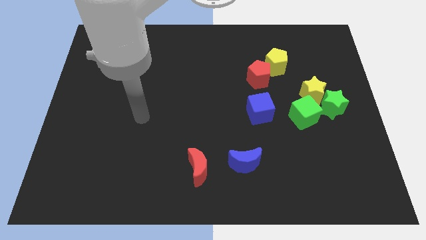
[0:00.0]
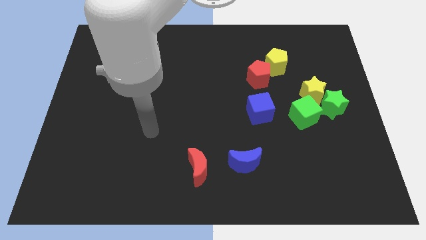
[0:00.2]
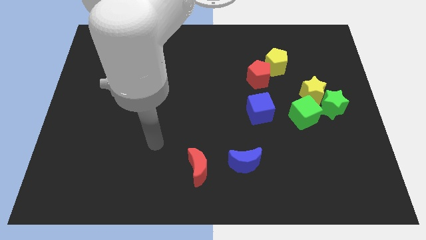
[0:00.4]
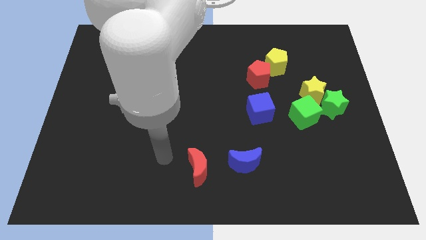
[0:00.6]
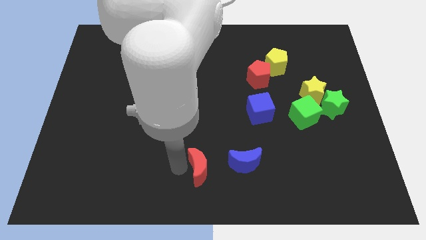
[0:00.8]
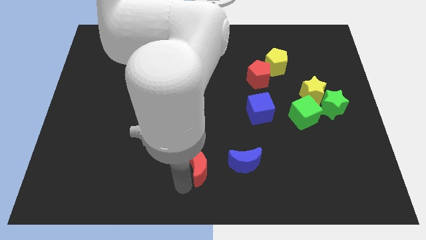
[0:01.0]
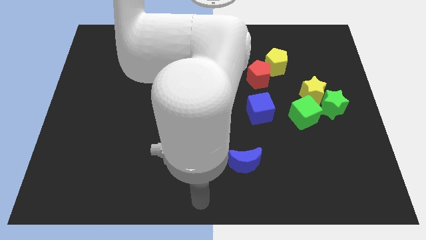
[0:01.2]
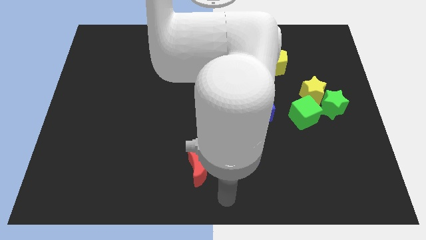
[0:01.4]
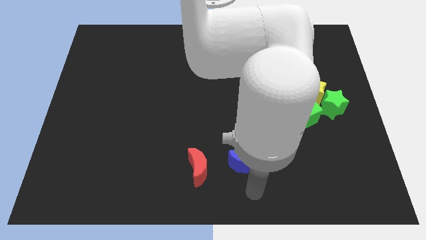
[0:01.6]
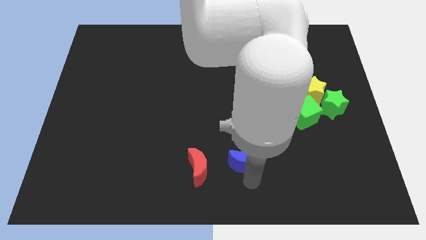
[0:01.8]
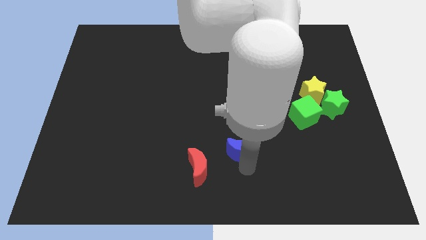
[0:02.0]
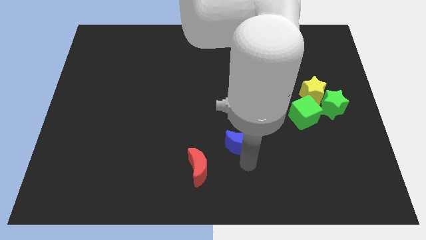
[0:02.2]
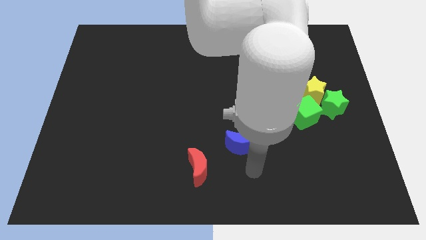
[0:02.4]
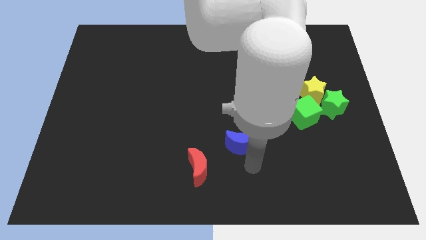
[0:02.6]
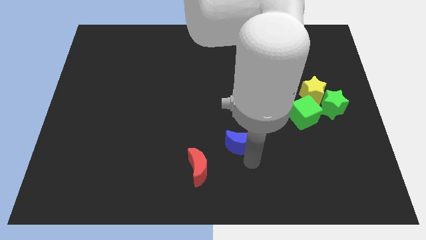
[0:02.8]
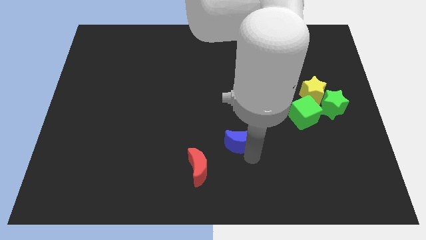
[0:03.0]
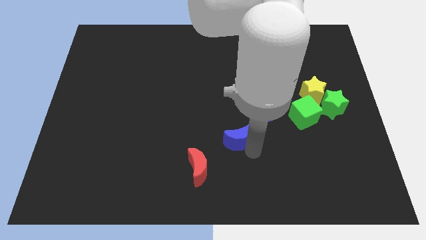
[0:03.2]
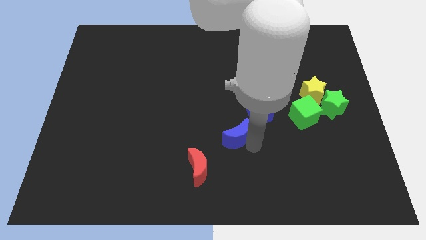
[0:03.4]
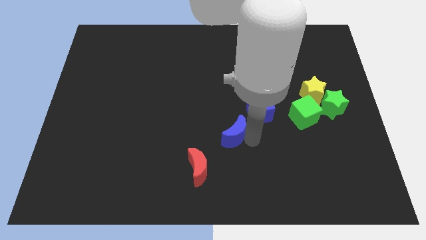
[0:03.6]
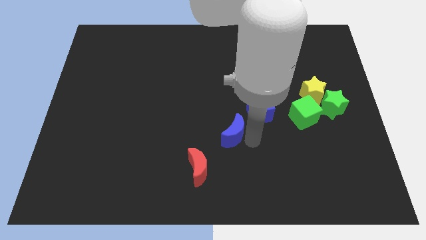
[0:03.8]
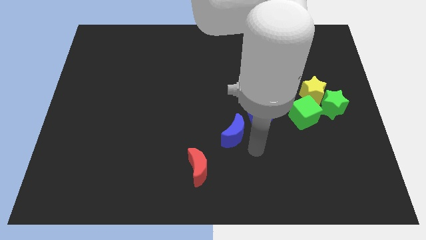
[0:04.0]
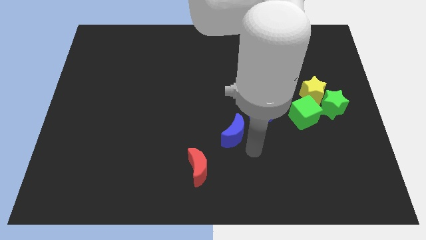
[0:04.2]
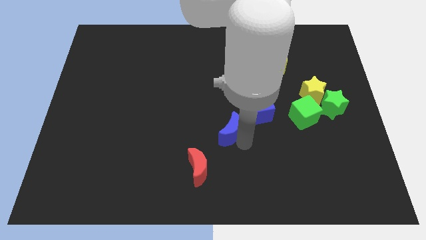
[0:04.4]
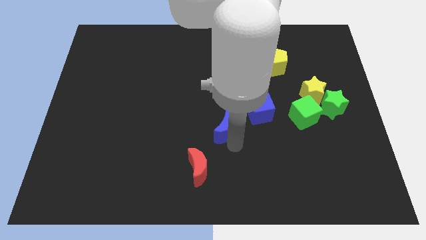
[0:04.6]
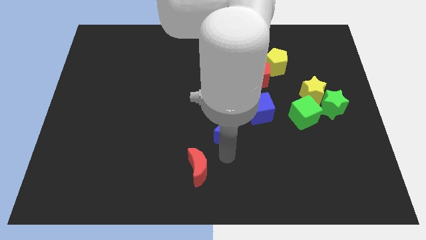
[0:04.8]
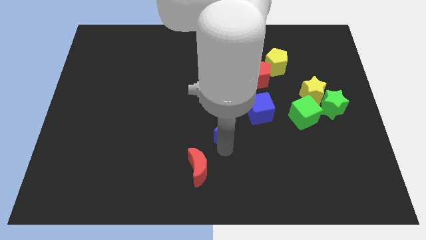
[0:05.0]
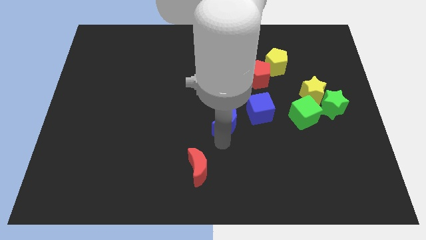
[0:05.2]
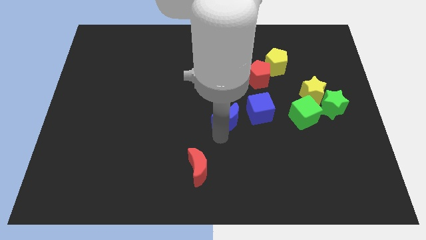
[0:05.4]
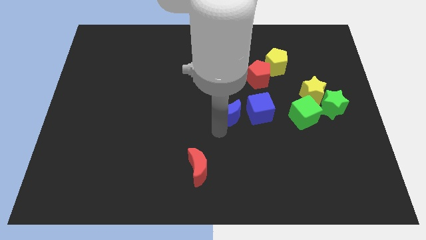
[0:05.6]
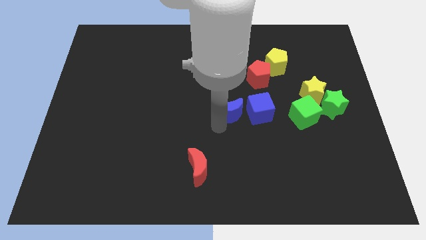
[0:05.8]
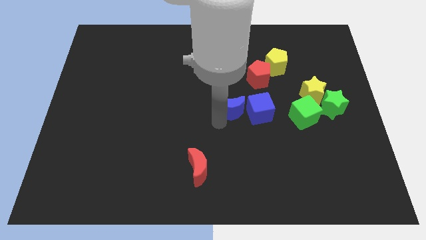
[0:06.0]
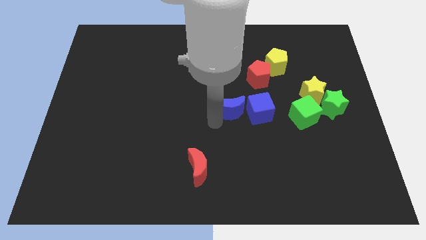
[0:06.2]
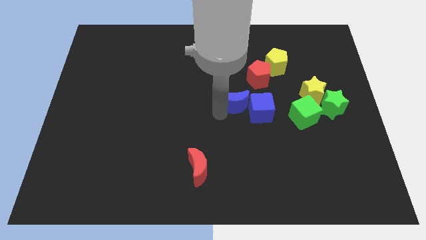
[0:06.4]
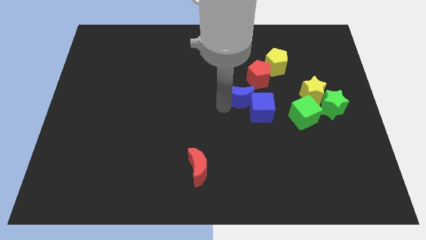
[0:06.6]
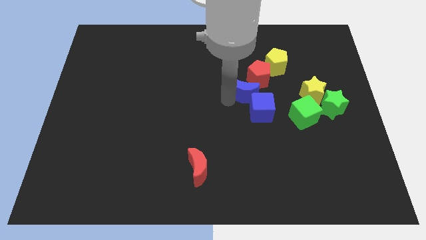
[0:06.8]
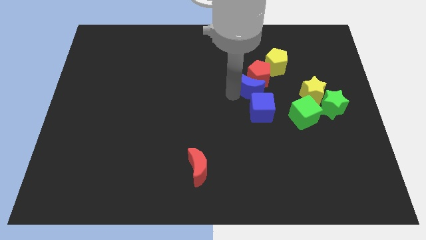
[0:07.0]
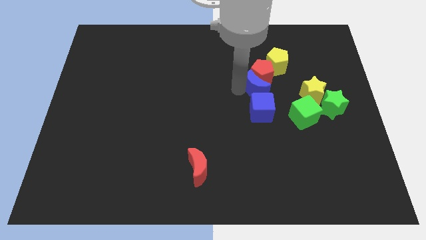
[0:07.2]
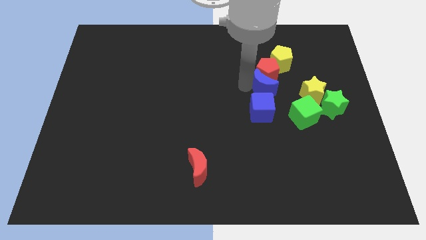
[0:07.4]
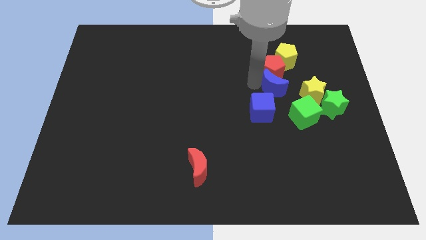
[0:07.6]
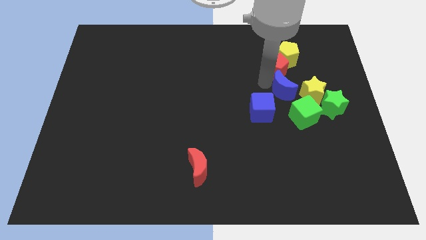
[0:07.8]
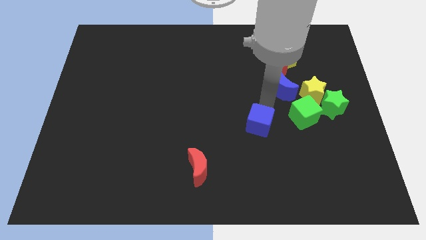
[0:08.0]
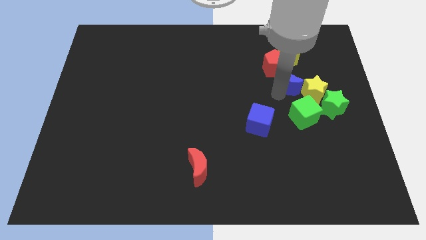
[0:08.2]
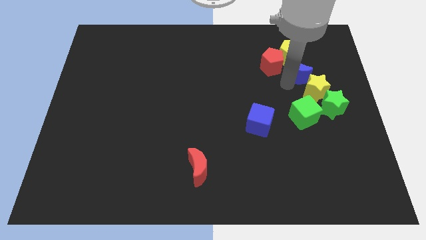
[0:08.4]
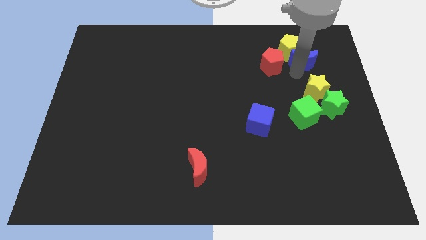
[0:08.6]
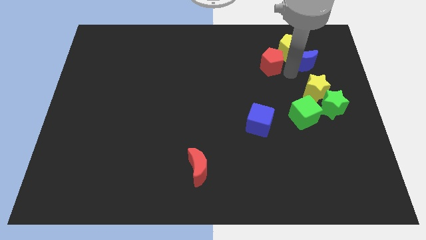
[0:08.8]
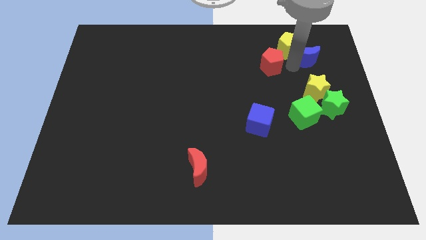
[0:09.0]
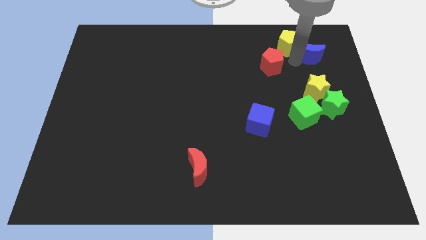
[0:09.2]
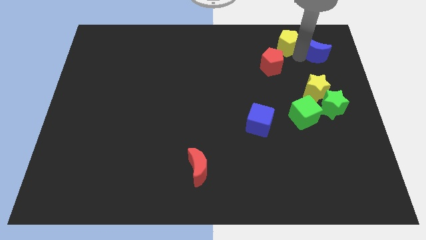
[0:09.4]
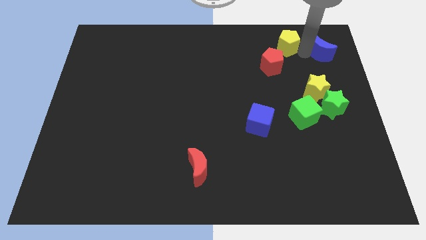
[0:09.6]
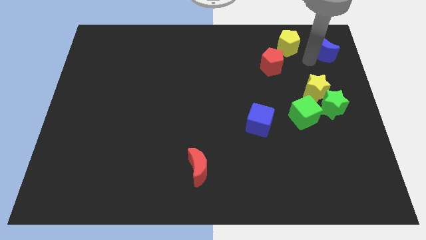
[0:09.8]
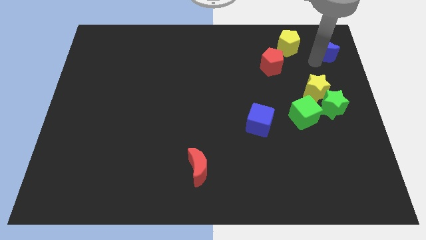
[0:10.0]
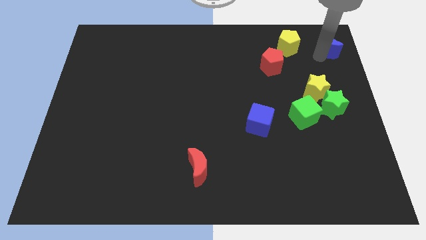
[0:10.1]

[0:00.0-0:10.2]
push the blue moon to the top right

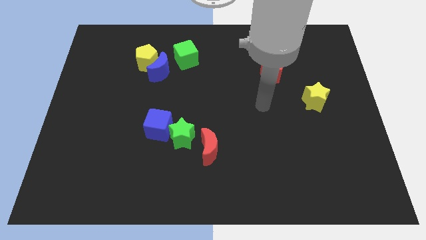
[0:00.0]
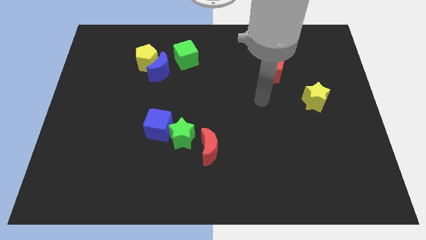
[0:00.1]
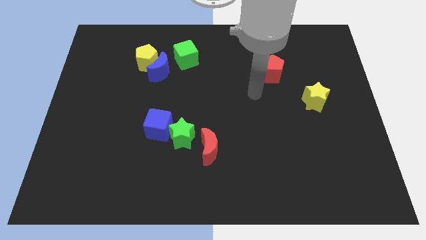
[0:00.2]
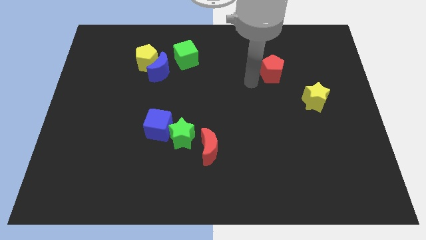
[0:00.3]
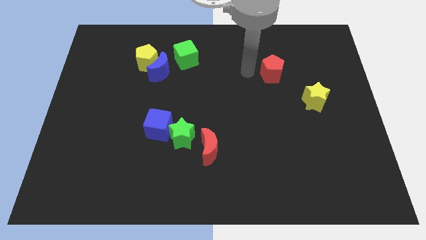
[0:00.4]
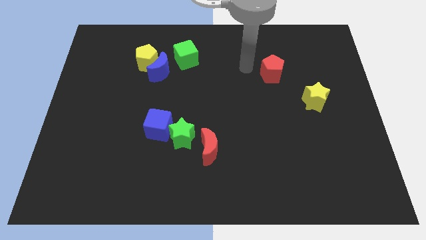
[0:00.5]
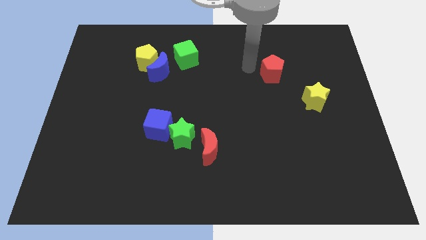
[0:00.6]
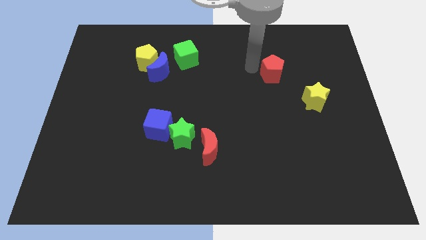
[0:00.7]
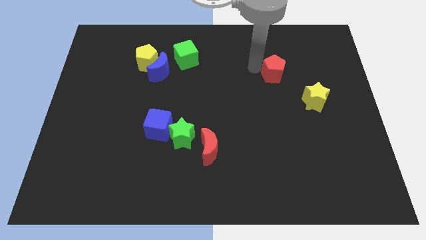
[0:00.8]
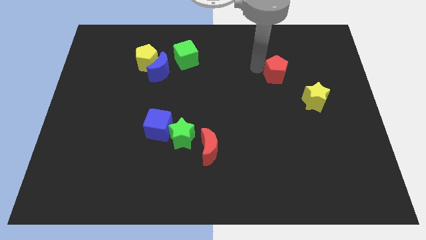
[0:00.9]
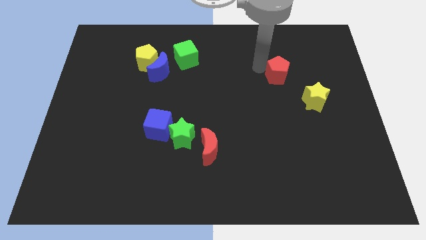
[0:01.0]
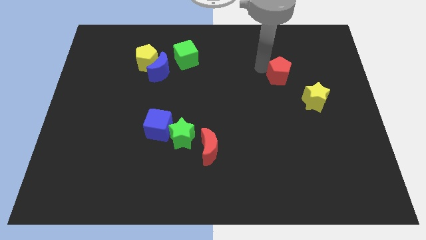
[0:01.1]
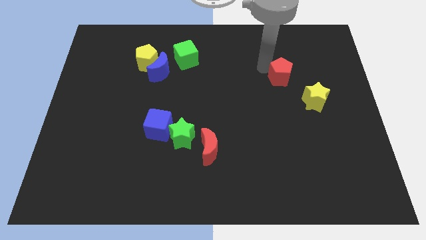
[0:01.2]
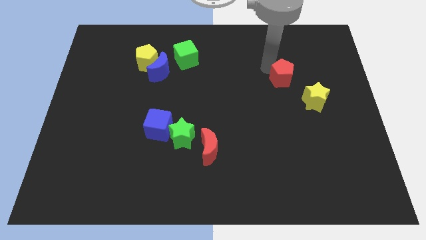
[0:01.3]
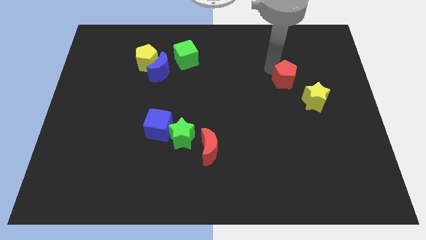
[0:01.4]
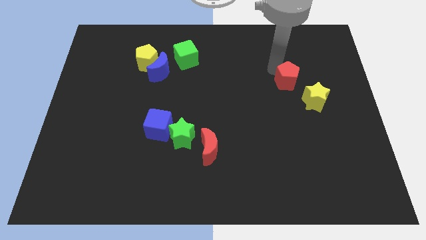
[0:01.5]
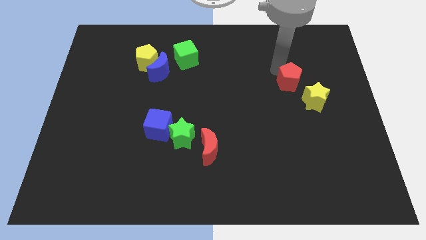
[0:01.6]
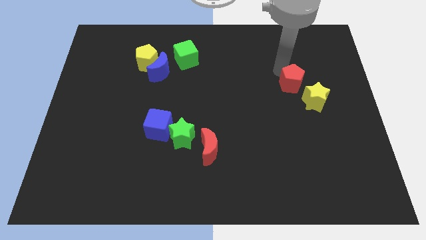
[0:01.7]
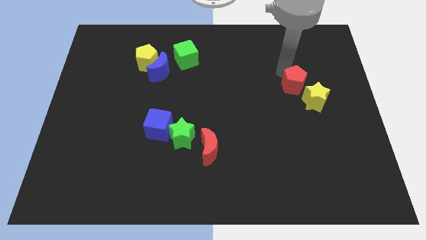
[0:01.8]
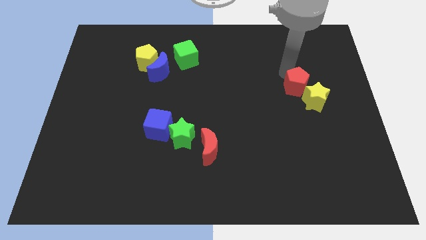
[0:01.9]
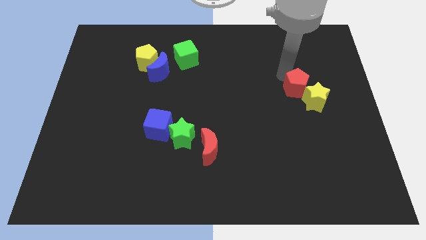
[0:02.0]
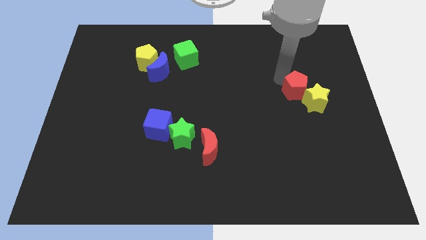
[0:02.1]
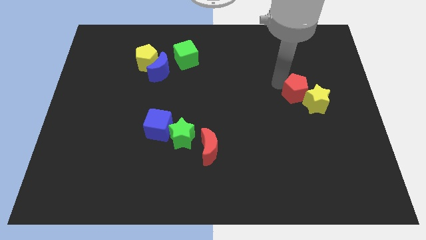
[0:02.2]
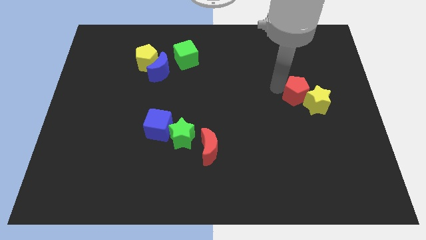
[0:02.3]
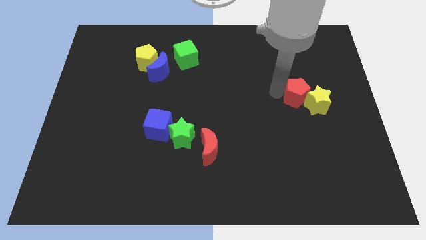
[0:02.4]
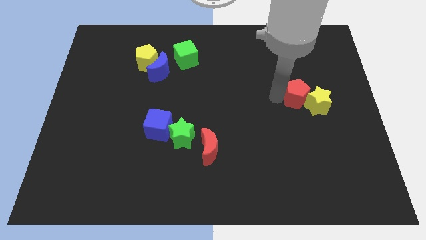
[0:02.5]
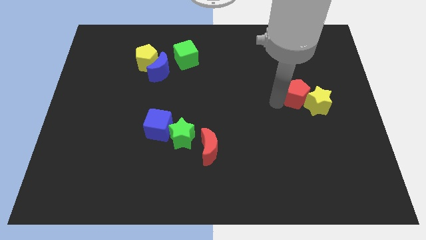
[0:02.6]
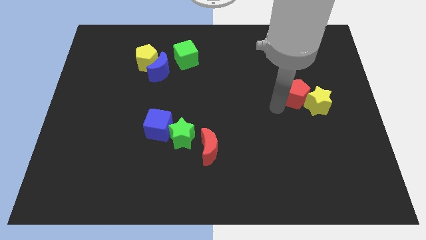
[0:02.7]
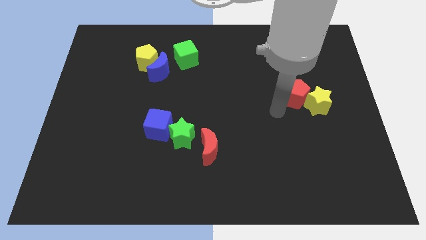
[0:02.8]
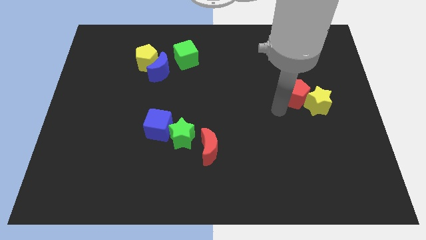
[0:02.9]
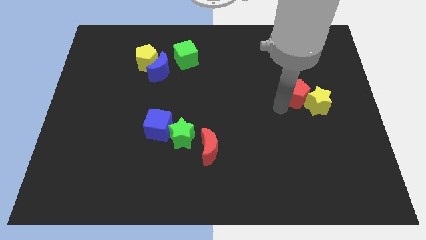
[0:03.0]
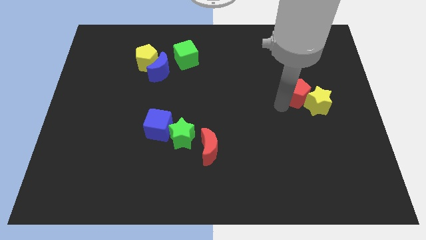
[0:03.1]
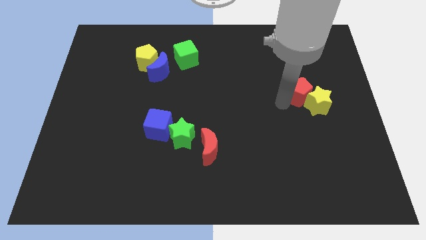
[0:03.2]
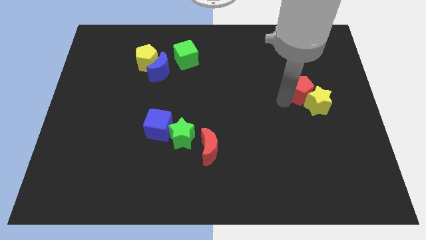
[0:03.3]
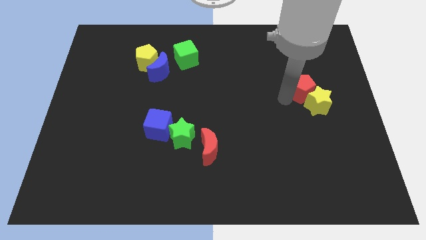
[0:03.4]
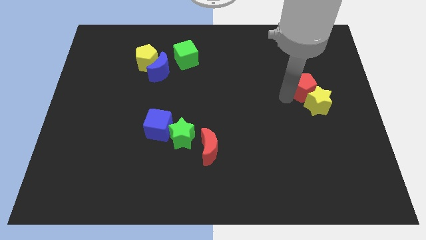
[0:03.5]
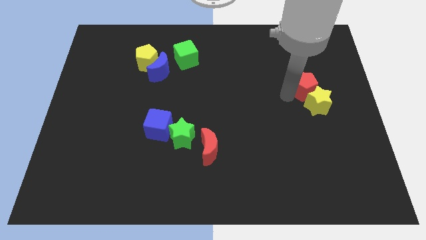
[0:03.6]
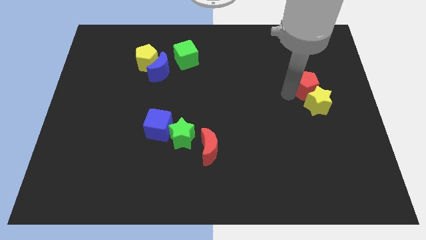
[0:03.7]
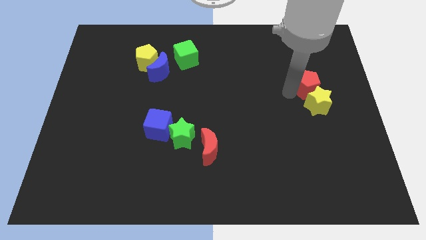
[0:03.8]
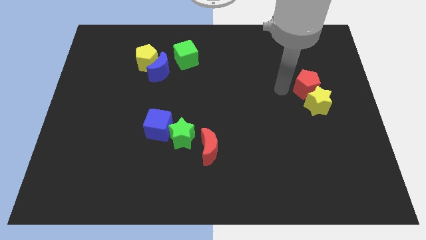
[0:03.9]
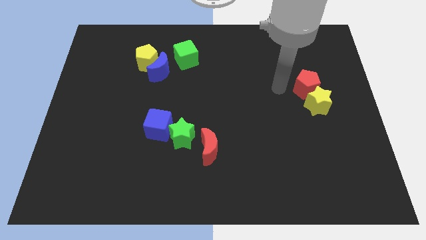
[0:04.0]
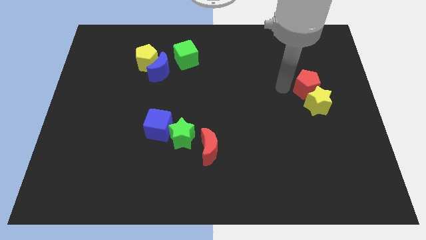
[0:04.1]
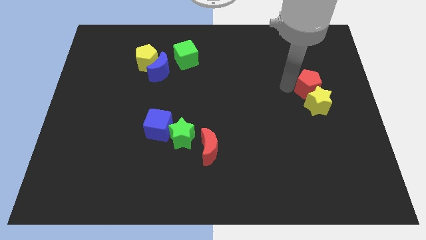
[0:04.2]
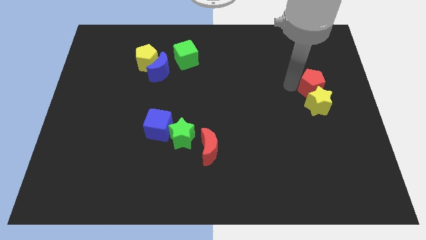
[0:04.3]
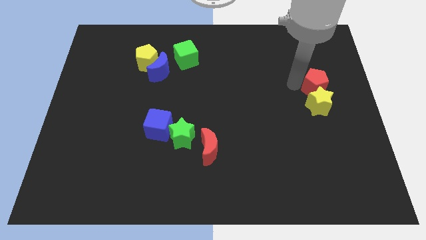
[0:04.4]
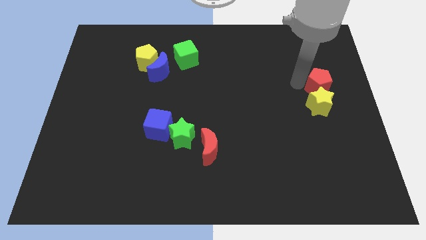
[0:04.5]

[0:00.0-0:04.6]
push the red pentagon to the center right
